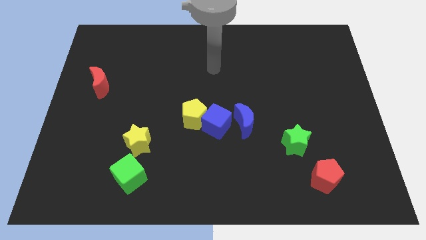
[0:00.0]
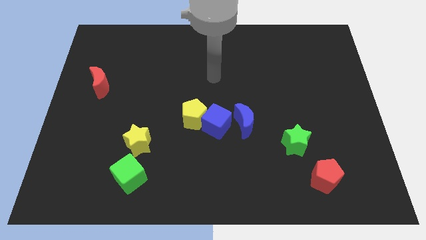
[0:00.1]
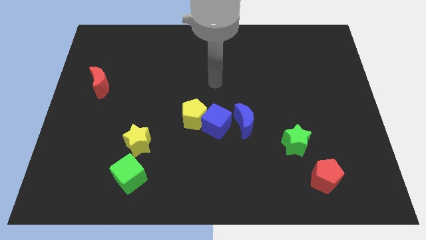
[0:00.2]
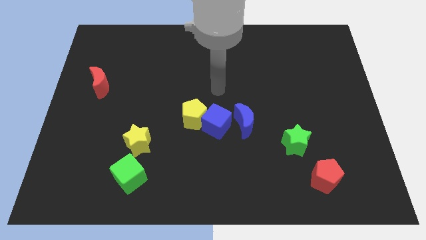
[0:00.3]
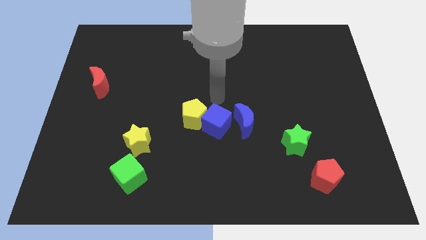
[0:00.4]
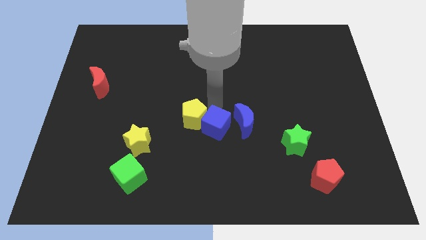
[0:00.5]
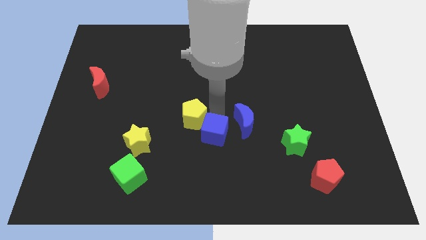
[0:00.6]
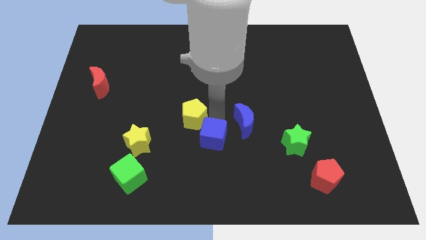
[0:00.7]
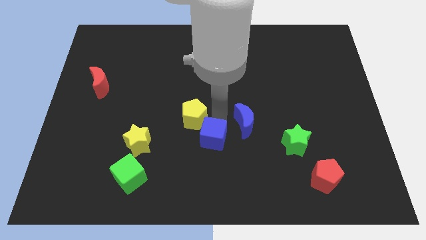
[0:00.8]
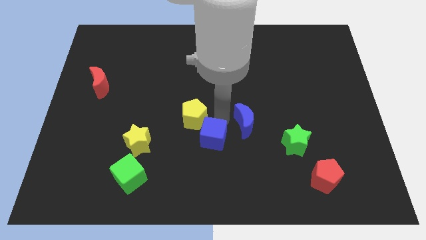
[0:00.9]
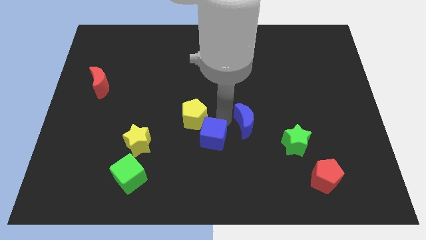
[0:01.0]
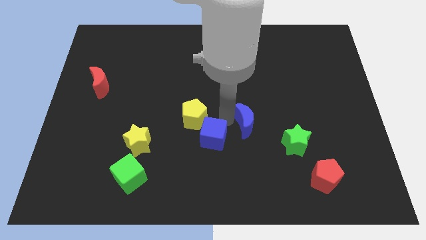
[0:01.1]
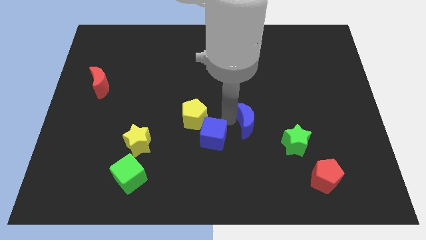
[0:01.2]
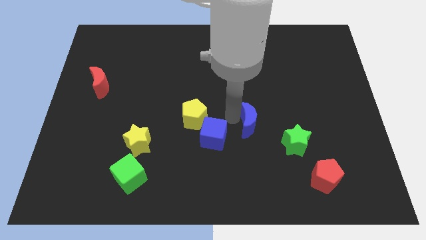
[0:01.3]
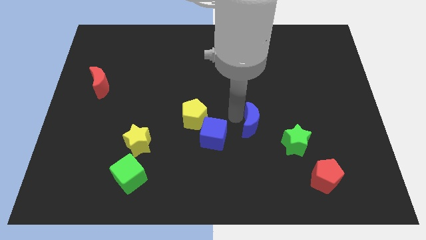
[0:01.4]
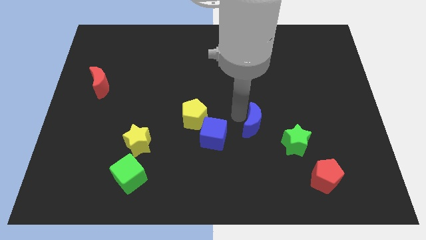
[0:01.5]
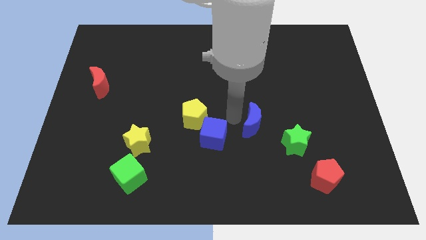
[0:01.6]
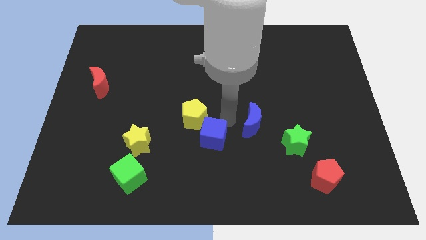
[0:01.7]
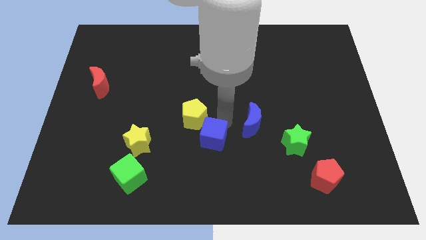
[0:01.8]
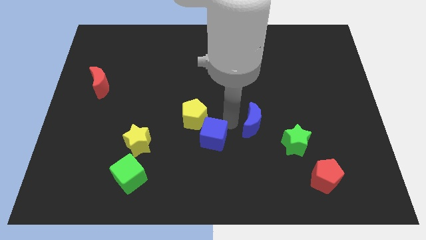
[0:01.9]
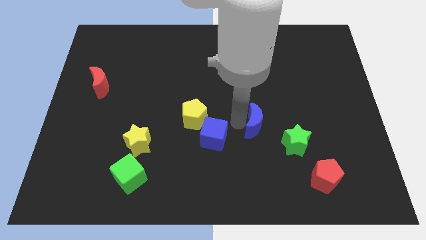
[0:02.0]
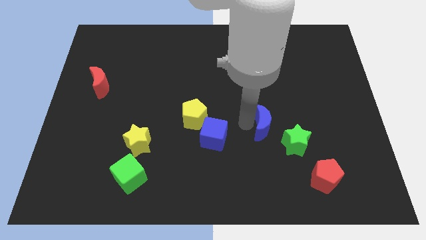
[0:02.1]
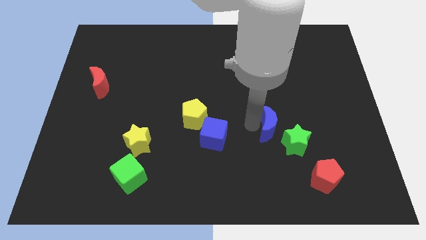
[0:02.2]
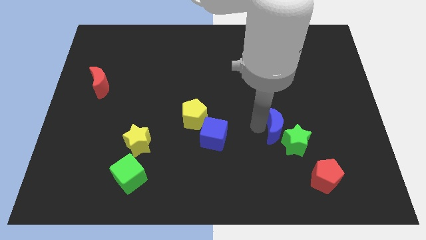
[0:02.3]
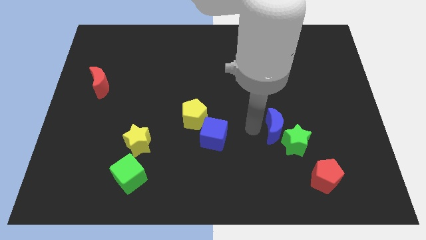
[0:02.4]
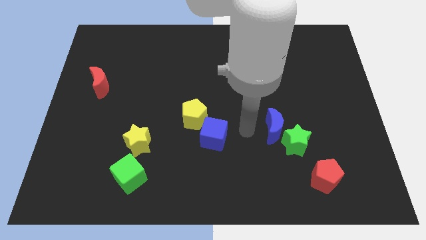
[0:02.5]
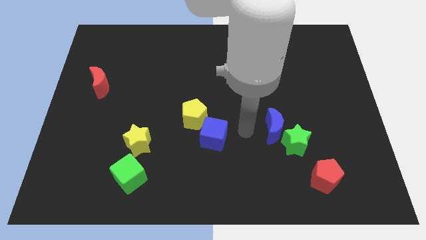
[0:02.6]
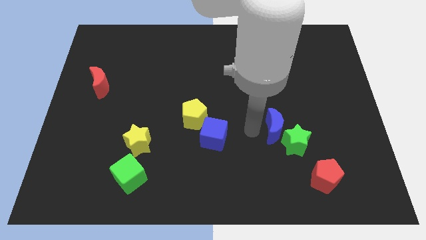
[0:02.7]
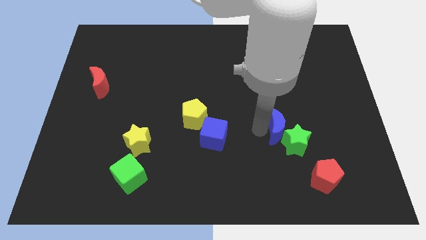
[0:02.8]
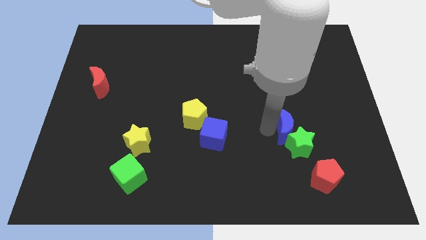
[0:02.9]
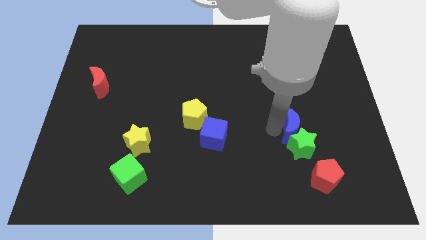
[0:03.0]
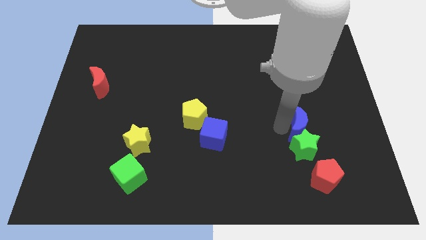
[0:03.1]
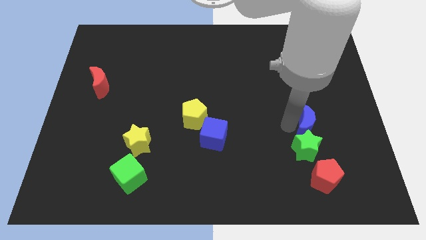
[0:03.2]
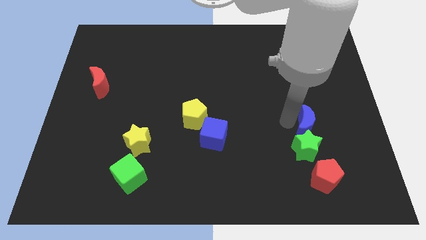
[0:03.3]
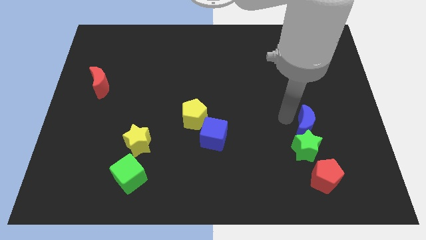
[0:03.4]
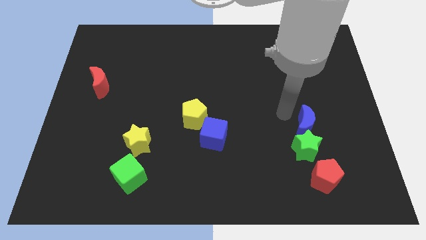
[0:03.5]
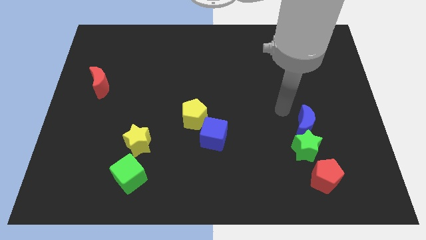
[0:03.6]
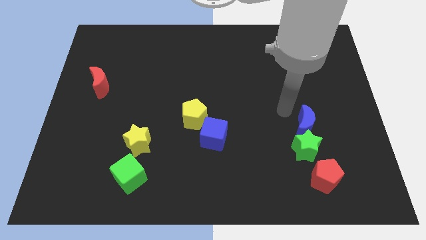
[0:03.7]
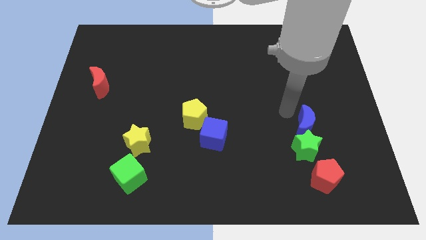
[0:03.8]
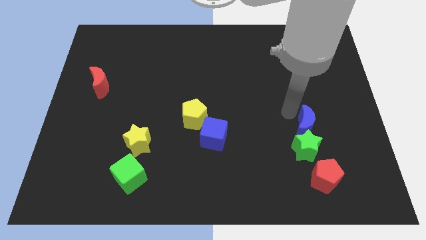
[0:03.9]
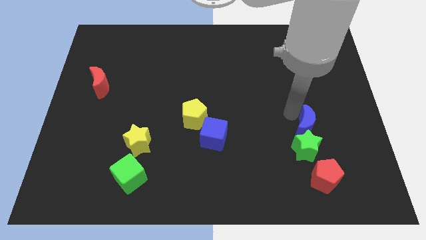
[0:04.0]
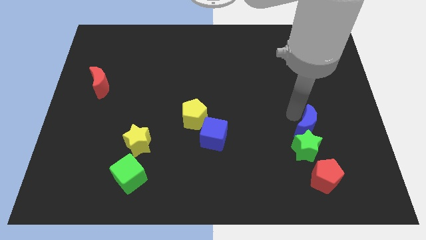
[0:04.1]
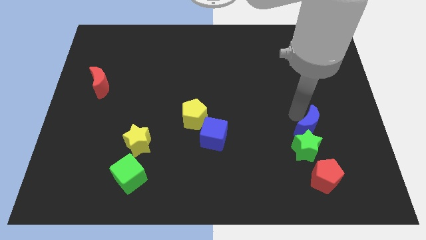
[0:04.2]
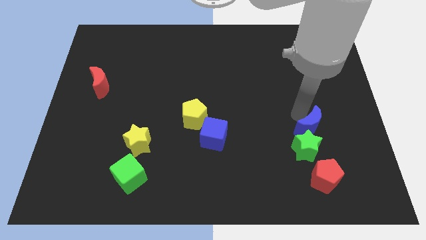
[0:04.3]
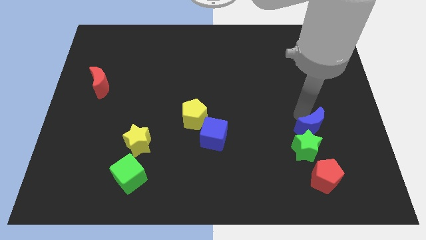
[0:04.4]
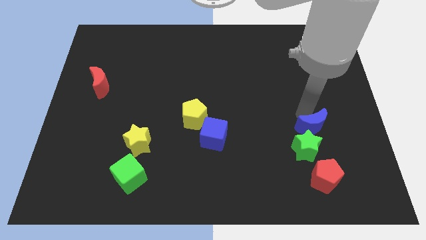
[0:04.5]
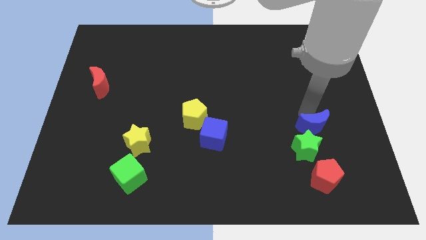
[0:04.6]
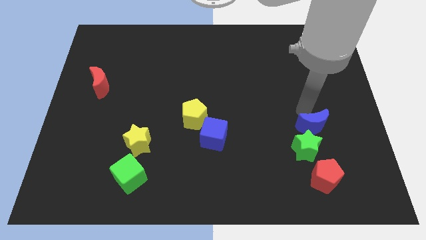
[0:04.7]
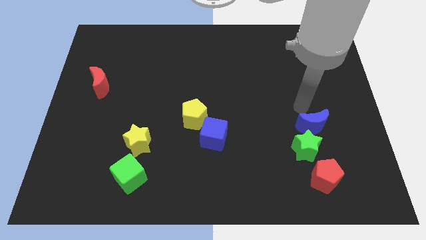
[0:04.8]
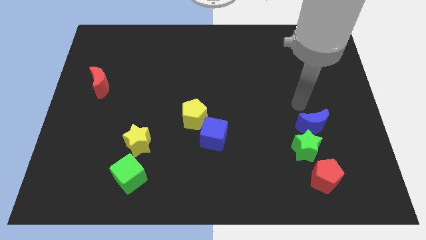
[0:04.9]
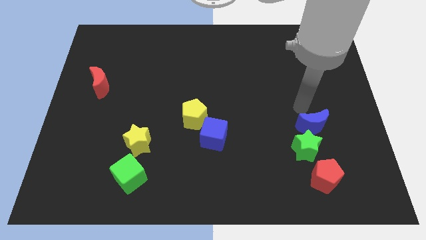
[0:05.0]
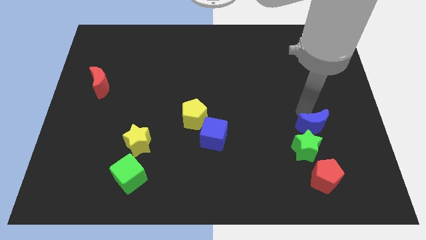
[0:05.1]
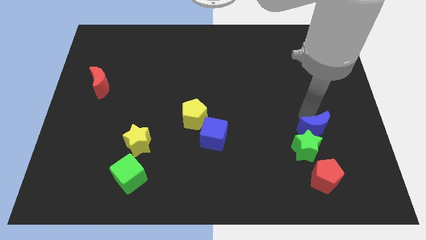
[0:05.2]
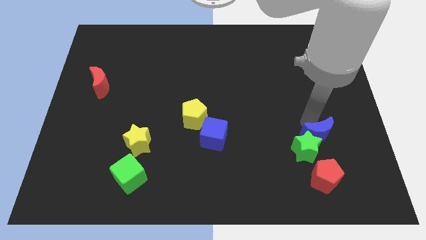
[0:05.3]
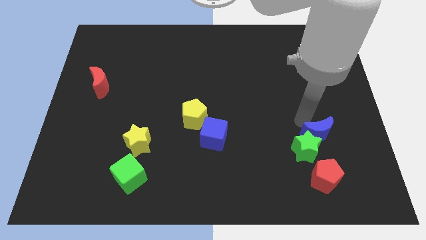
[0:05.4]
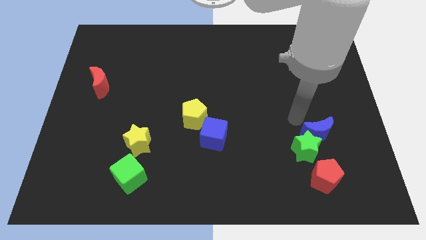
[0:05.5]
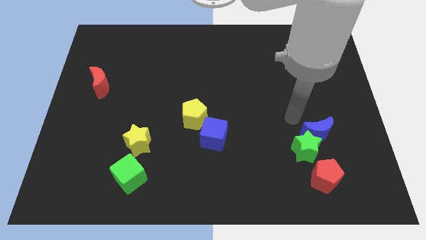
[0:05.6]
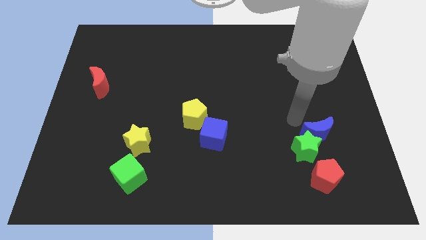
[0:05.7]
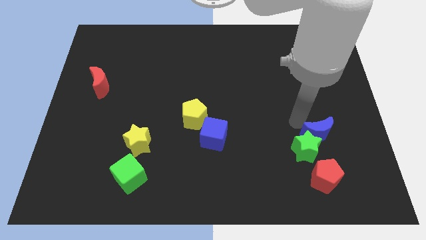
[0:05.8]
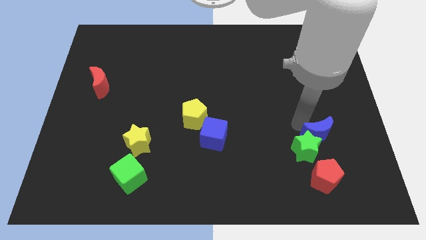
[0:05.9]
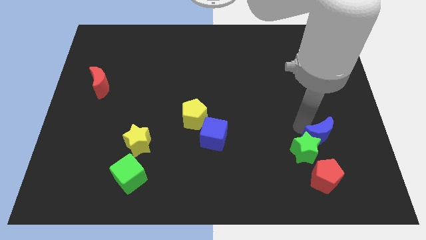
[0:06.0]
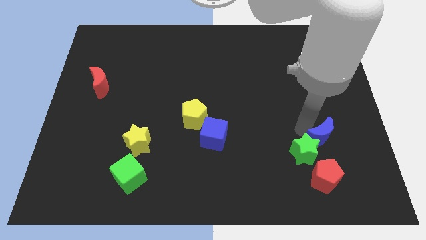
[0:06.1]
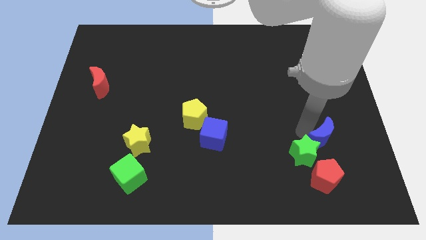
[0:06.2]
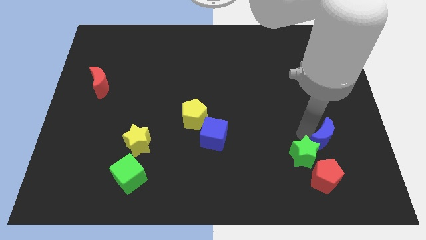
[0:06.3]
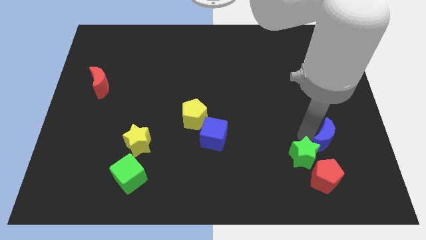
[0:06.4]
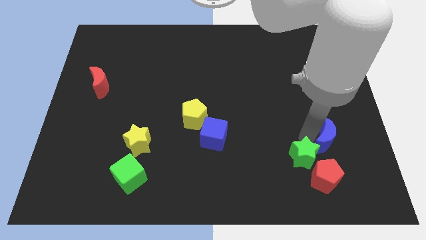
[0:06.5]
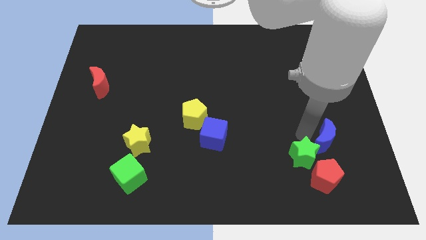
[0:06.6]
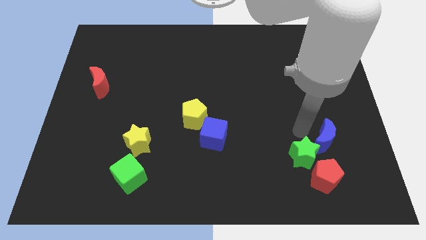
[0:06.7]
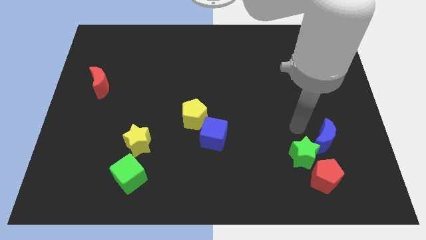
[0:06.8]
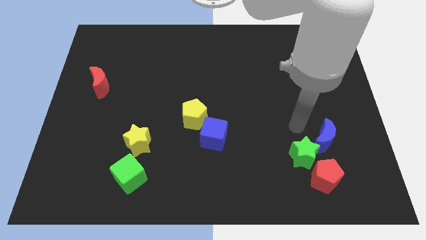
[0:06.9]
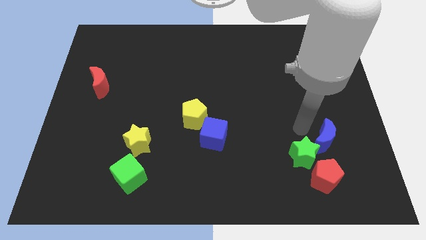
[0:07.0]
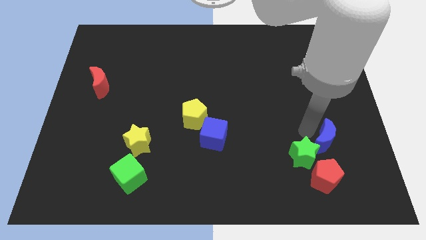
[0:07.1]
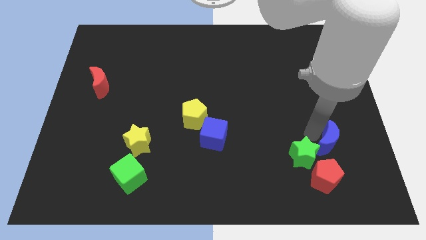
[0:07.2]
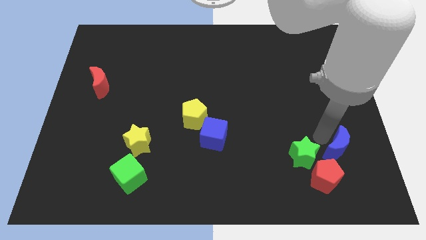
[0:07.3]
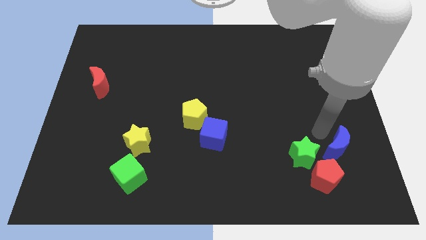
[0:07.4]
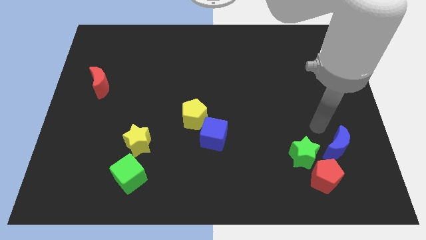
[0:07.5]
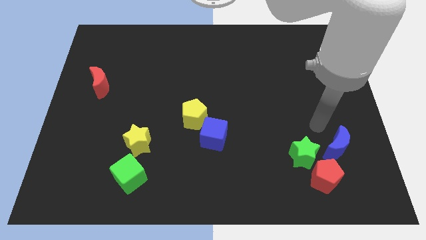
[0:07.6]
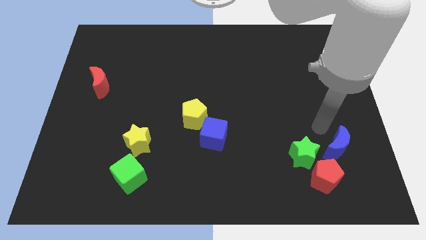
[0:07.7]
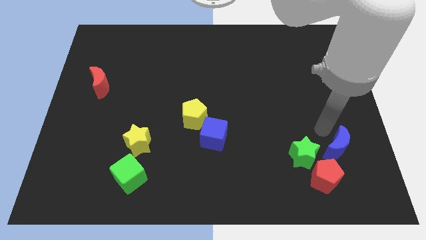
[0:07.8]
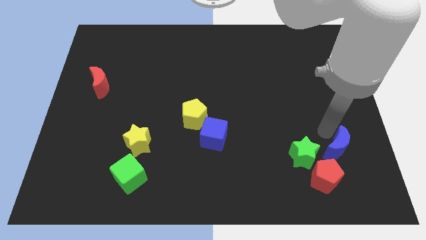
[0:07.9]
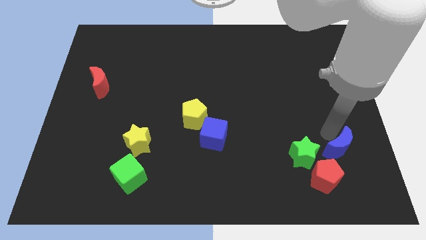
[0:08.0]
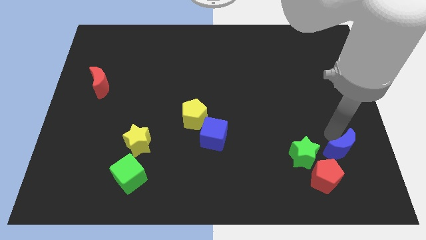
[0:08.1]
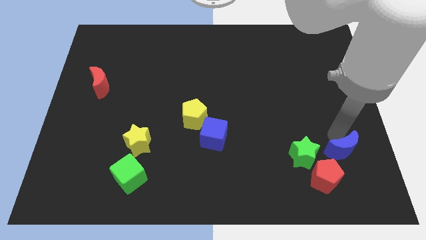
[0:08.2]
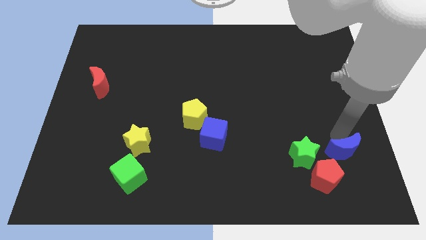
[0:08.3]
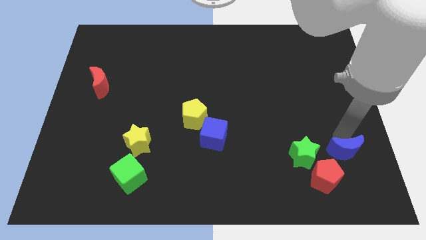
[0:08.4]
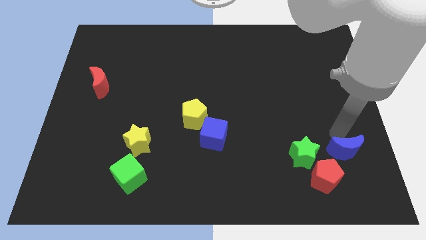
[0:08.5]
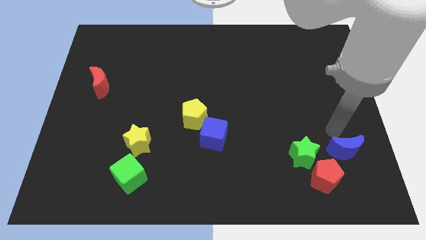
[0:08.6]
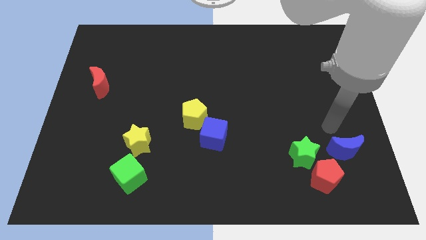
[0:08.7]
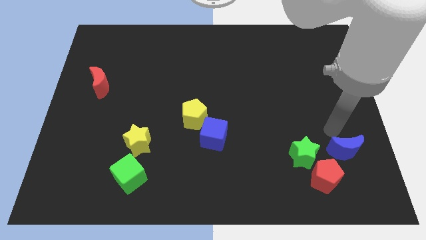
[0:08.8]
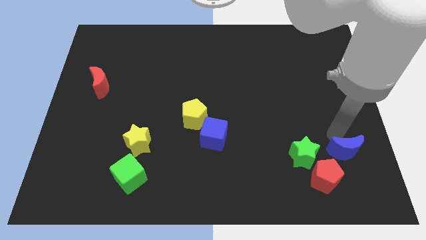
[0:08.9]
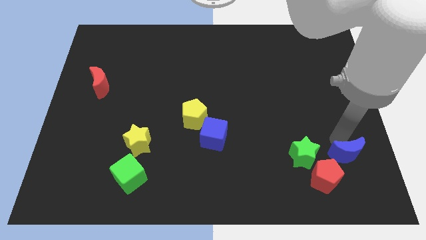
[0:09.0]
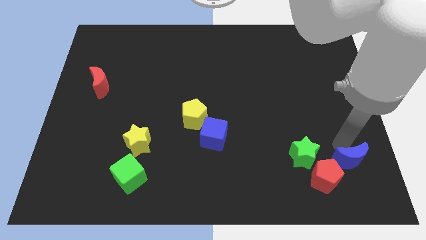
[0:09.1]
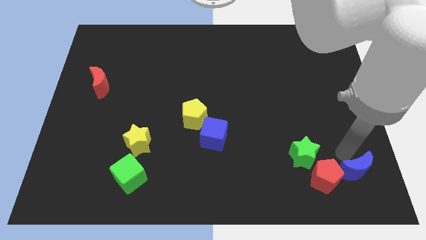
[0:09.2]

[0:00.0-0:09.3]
put the blue moon to the bottom right
